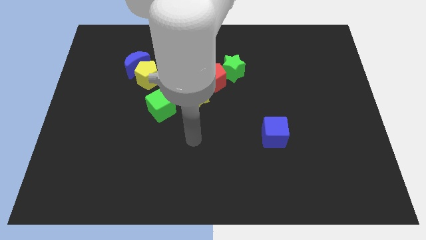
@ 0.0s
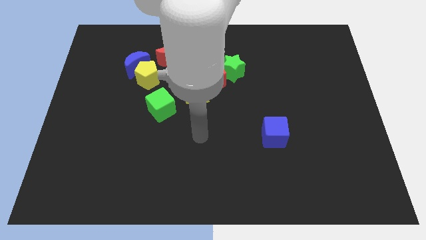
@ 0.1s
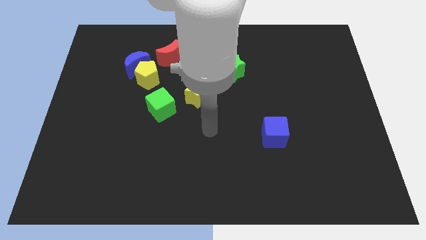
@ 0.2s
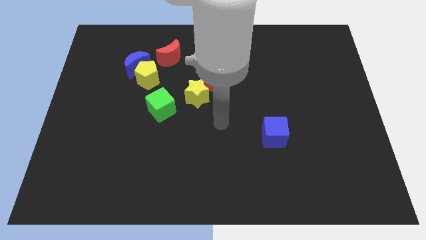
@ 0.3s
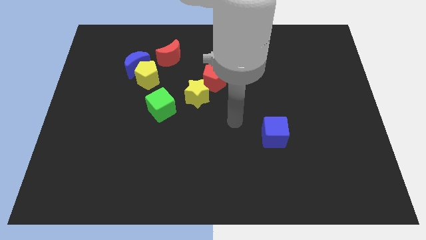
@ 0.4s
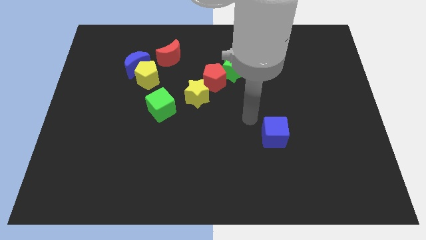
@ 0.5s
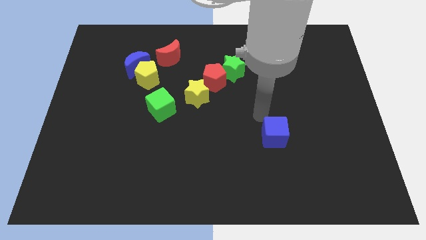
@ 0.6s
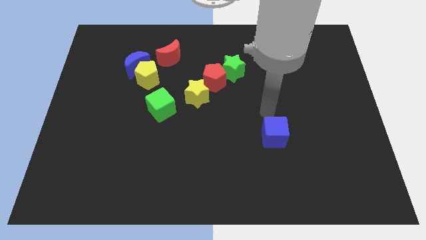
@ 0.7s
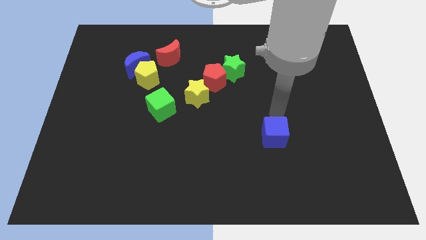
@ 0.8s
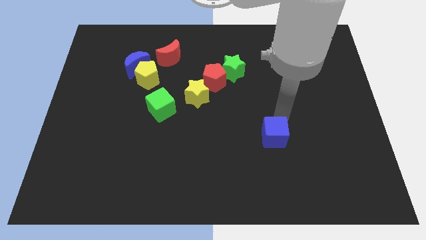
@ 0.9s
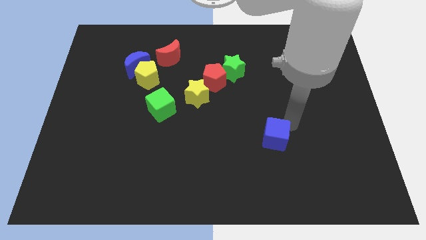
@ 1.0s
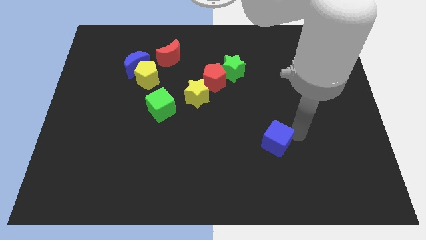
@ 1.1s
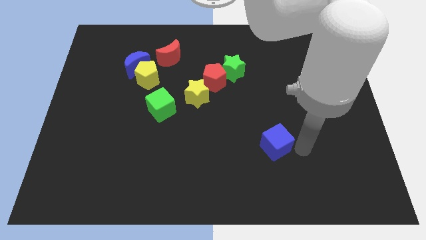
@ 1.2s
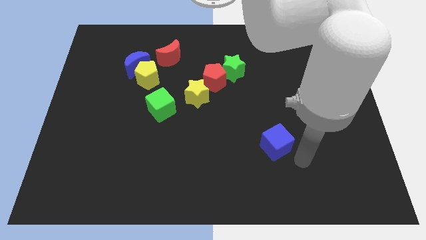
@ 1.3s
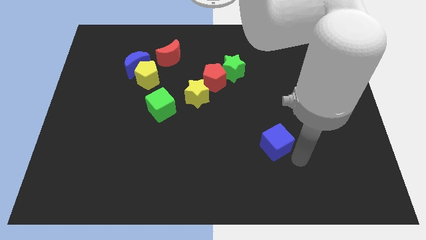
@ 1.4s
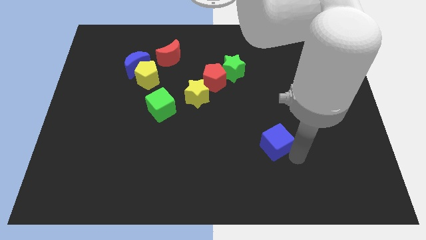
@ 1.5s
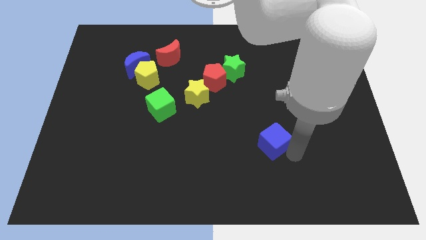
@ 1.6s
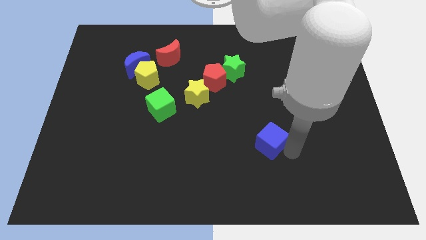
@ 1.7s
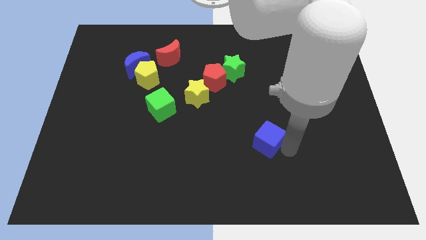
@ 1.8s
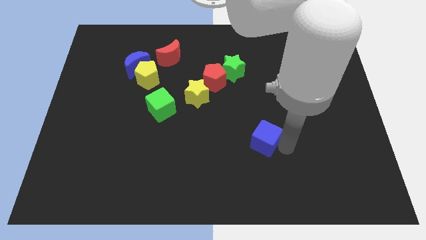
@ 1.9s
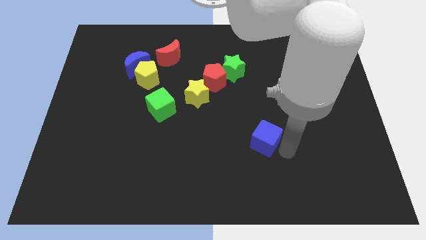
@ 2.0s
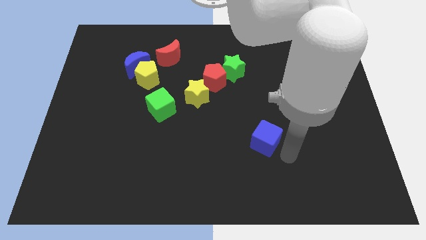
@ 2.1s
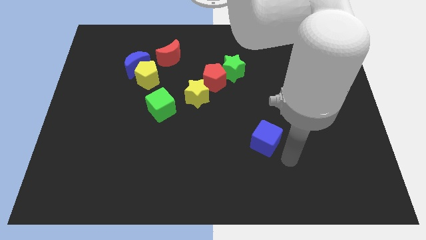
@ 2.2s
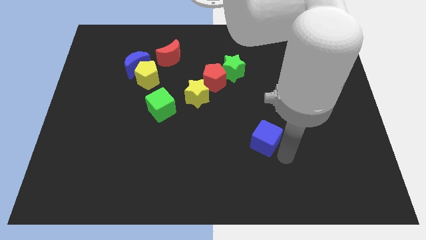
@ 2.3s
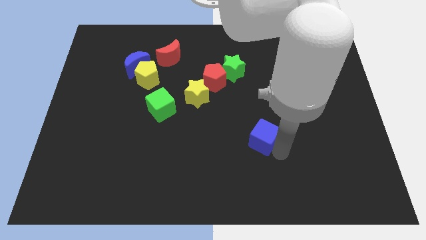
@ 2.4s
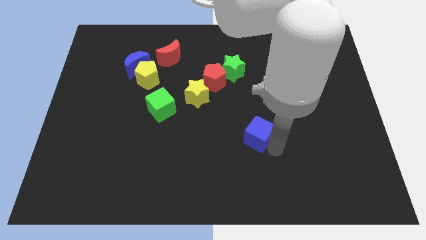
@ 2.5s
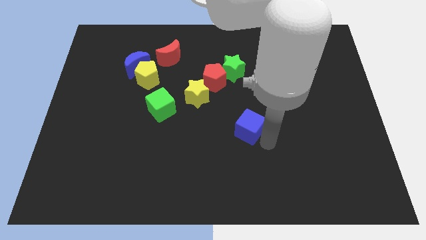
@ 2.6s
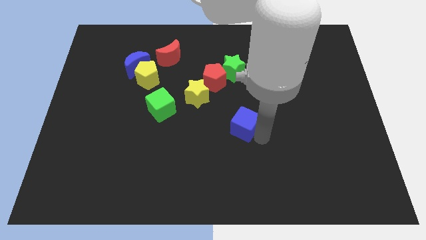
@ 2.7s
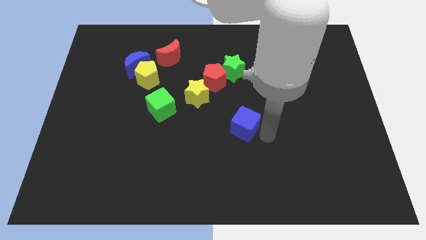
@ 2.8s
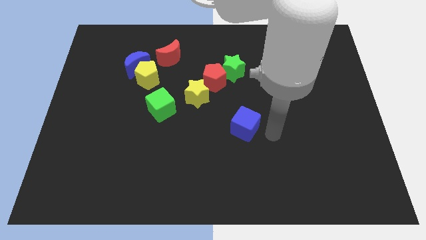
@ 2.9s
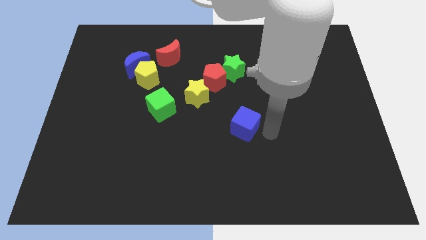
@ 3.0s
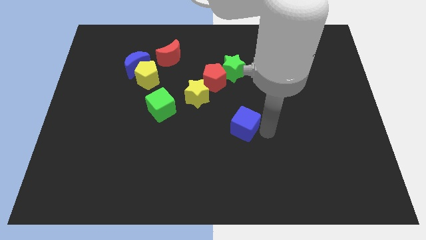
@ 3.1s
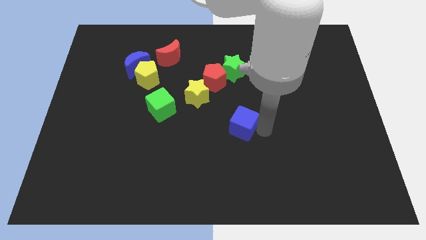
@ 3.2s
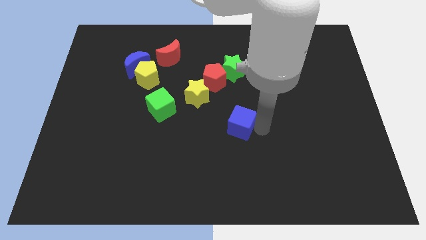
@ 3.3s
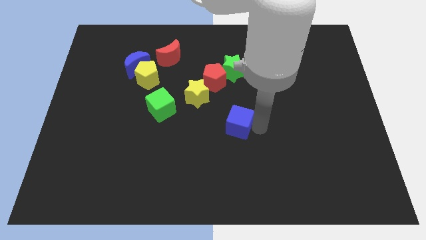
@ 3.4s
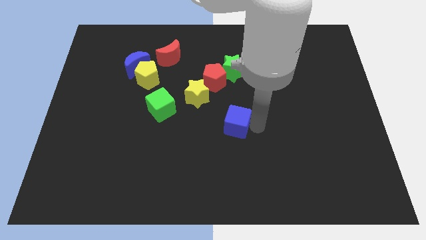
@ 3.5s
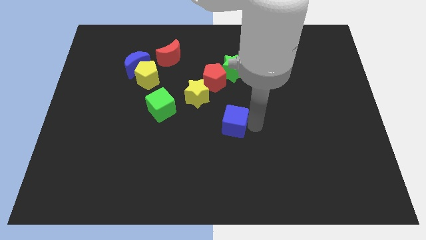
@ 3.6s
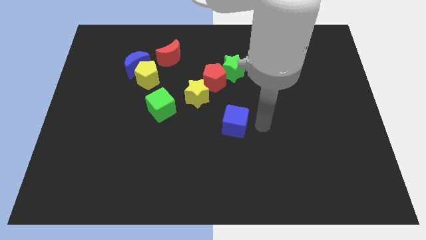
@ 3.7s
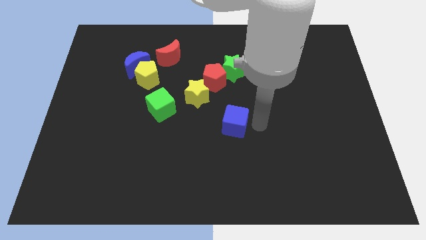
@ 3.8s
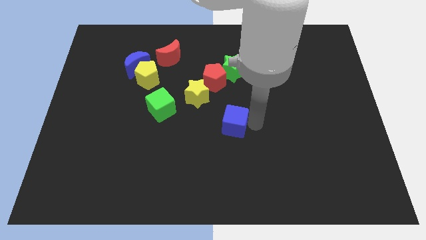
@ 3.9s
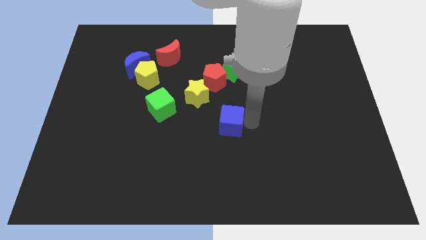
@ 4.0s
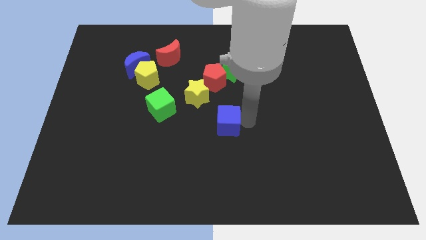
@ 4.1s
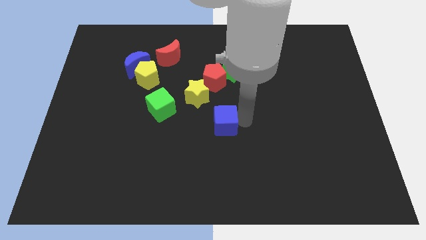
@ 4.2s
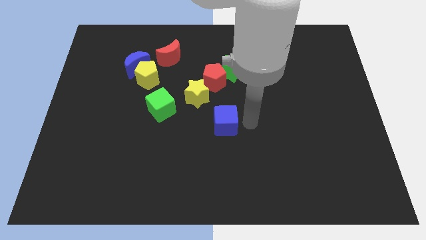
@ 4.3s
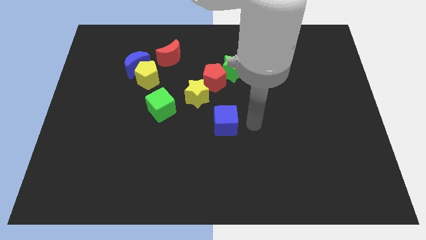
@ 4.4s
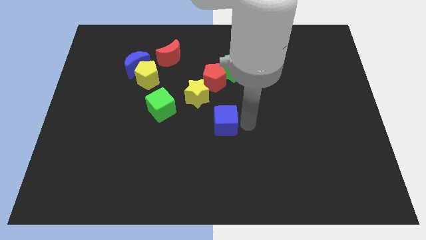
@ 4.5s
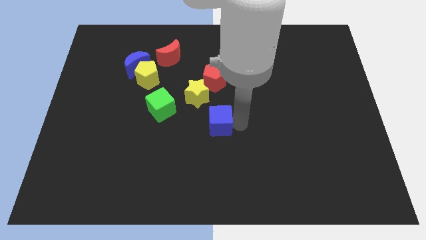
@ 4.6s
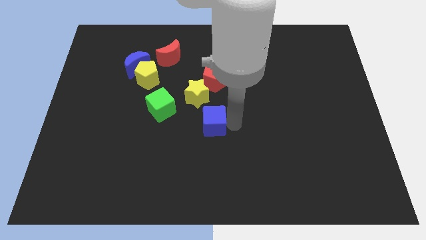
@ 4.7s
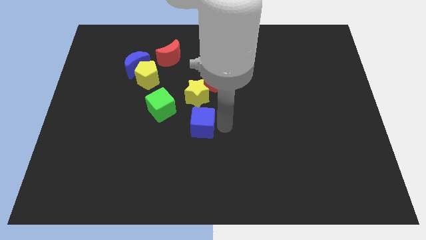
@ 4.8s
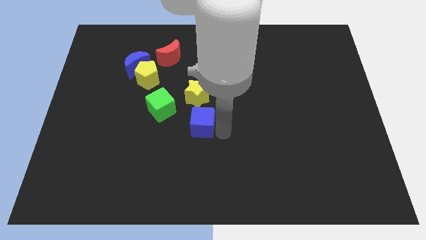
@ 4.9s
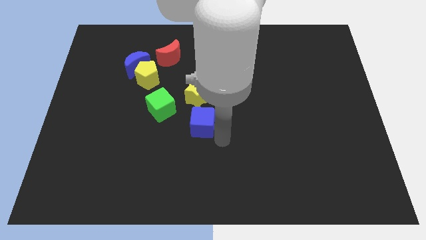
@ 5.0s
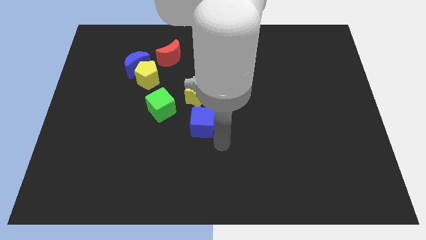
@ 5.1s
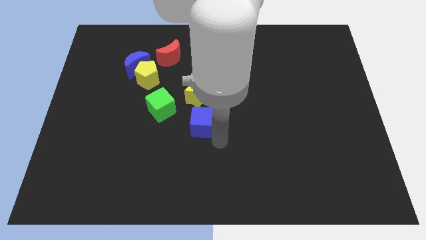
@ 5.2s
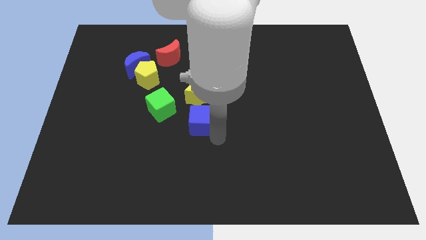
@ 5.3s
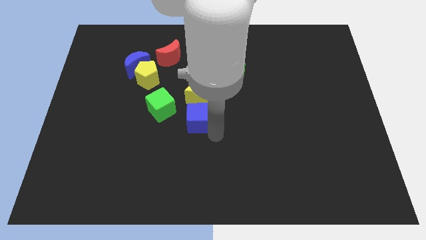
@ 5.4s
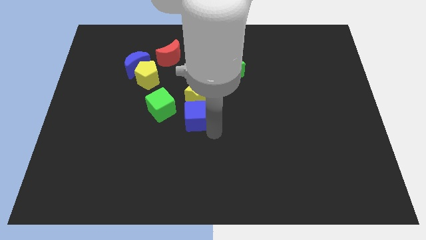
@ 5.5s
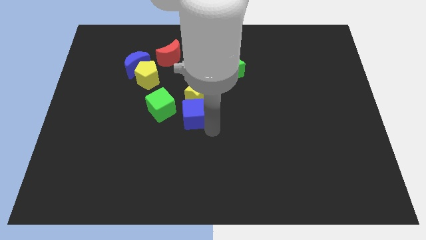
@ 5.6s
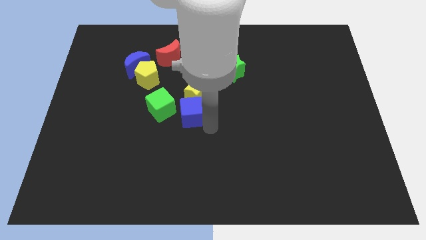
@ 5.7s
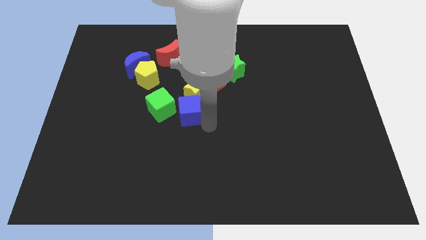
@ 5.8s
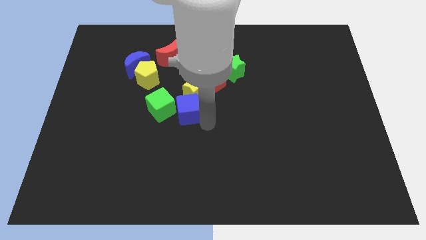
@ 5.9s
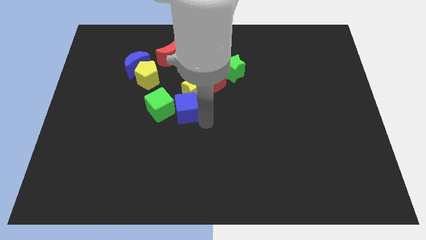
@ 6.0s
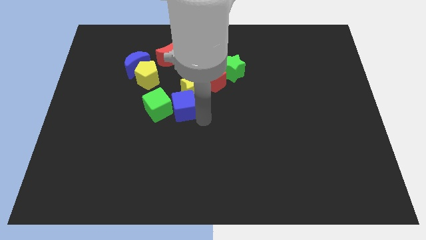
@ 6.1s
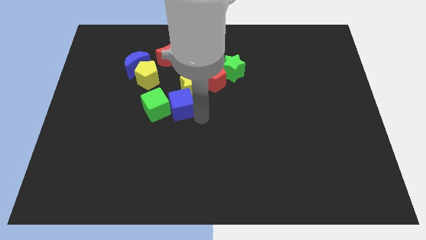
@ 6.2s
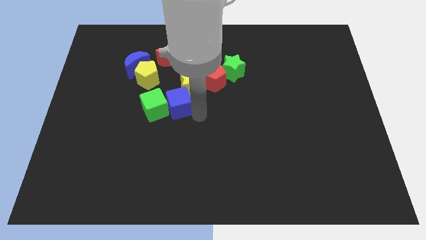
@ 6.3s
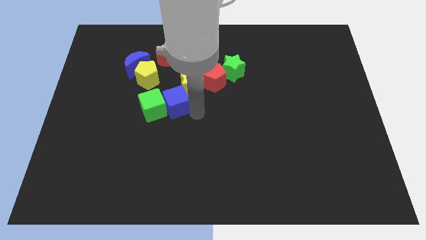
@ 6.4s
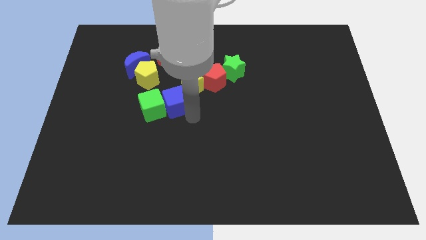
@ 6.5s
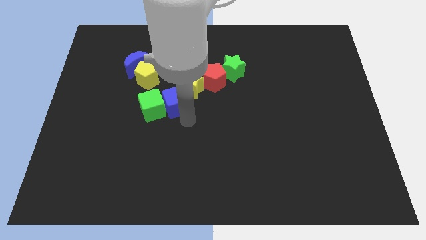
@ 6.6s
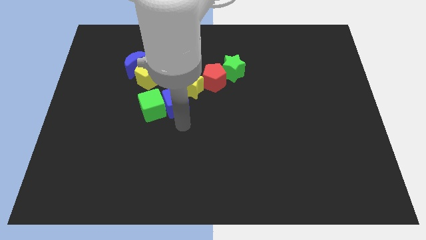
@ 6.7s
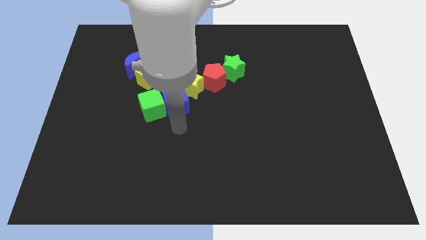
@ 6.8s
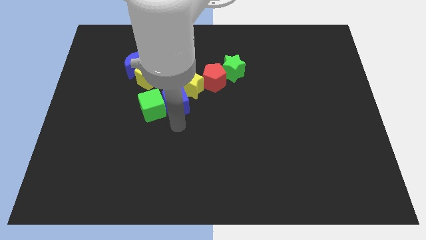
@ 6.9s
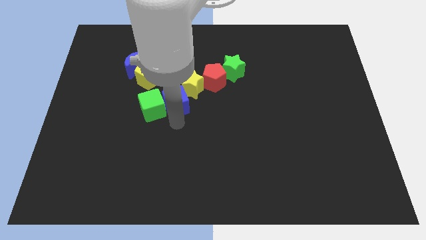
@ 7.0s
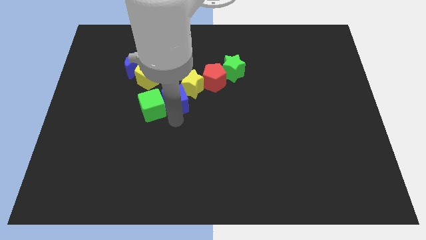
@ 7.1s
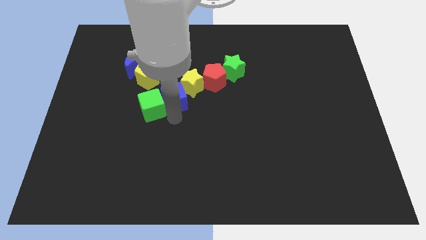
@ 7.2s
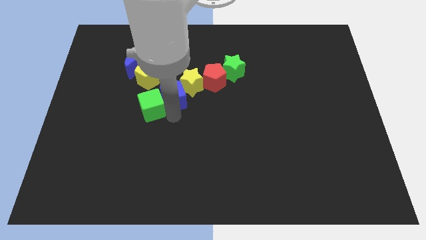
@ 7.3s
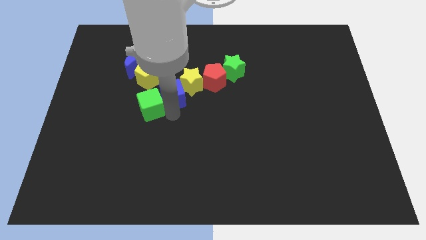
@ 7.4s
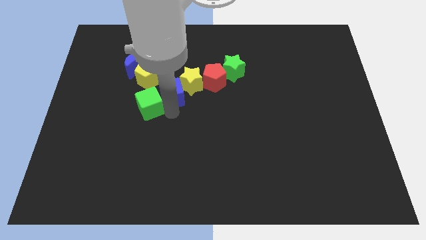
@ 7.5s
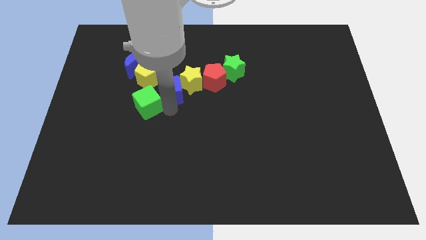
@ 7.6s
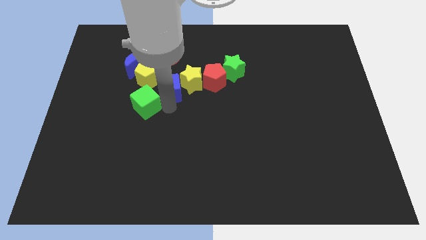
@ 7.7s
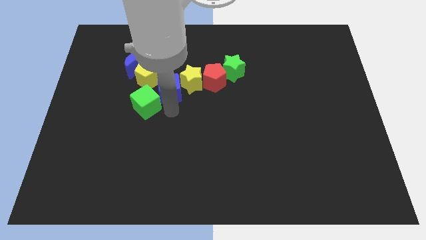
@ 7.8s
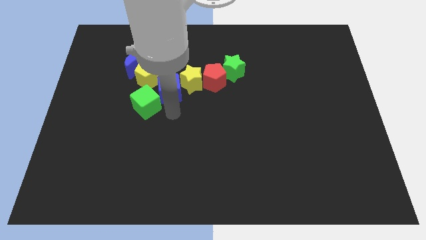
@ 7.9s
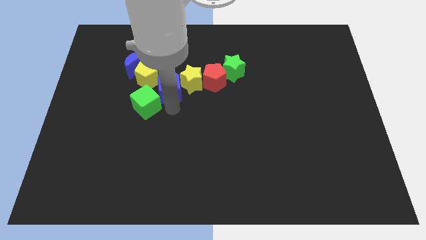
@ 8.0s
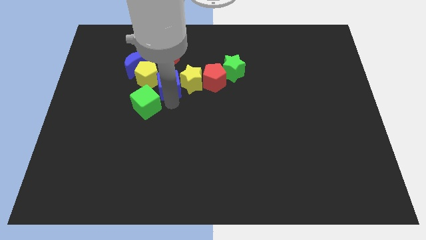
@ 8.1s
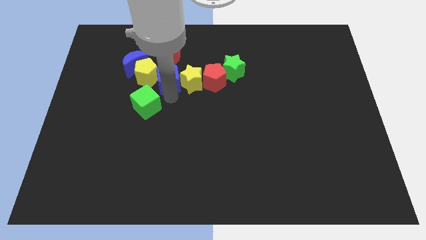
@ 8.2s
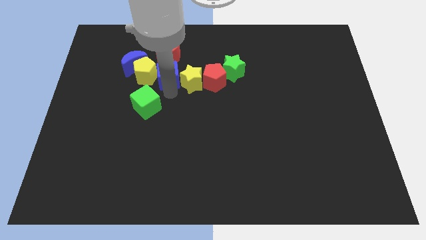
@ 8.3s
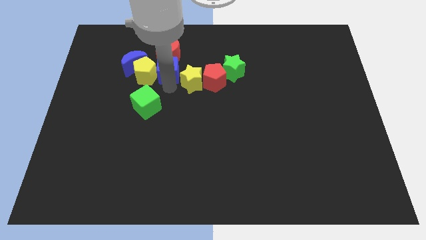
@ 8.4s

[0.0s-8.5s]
slide the blue cube next to the red moon
